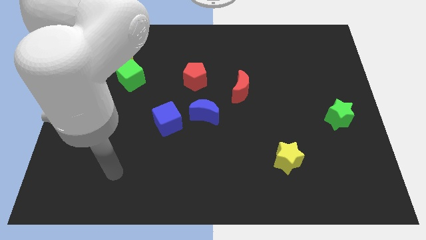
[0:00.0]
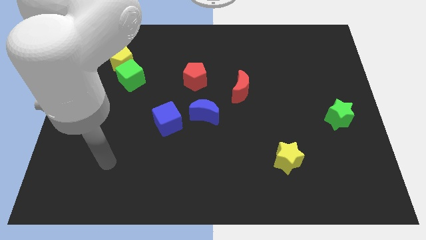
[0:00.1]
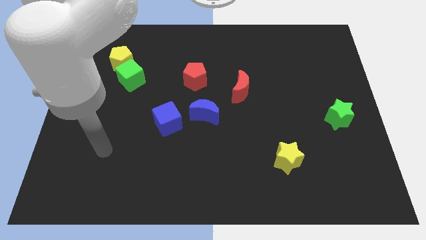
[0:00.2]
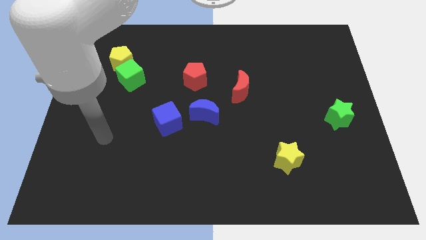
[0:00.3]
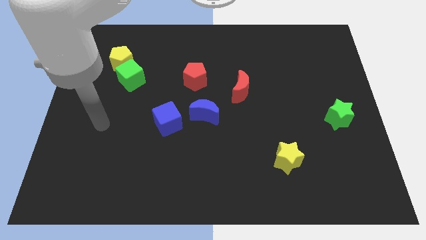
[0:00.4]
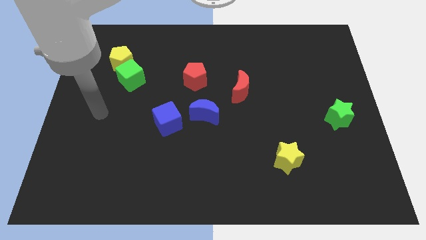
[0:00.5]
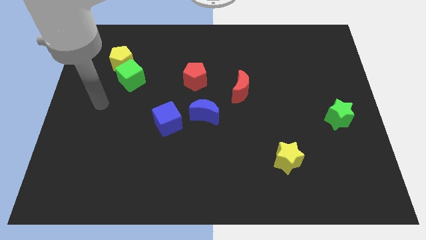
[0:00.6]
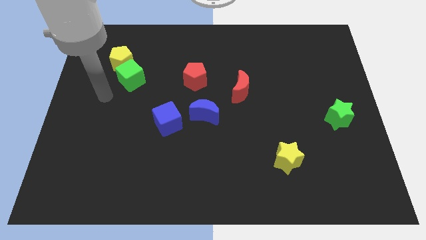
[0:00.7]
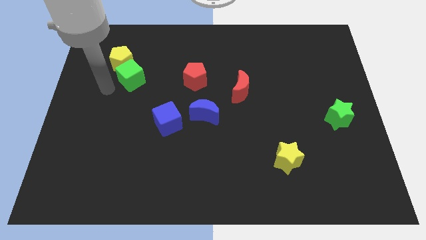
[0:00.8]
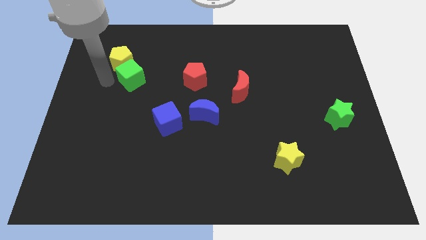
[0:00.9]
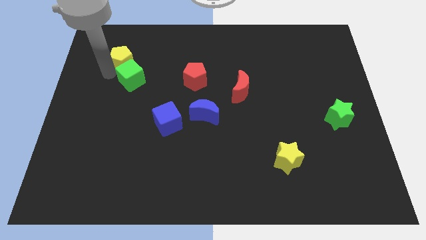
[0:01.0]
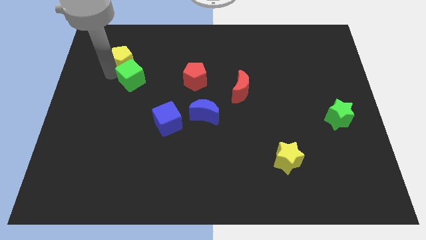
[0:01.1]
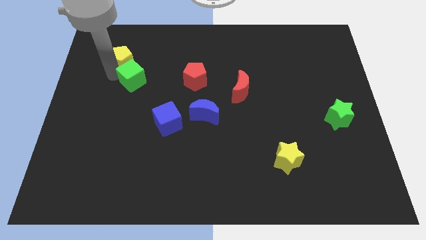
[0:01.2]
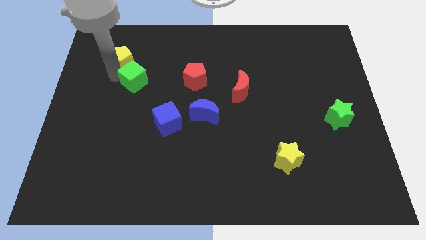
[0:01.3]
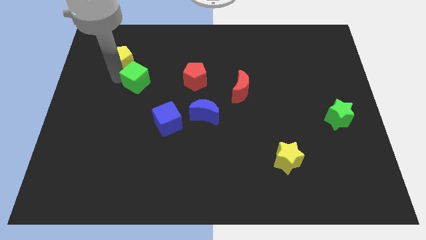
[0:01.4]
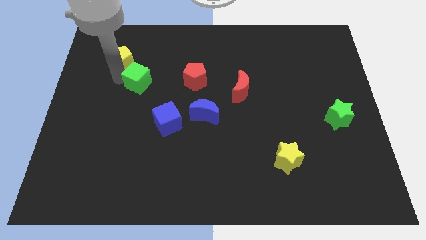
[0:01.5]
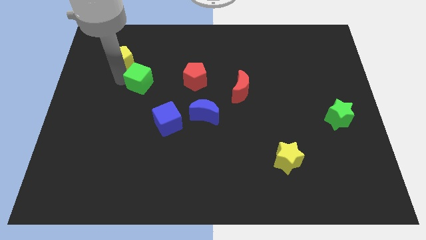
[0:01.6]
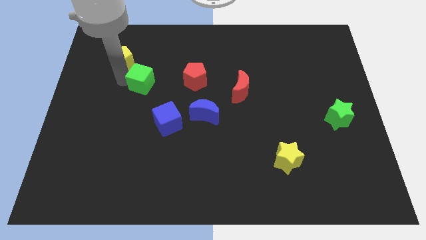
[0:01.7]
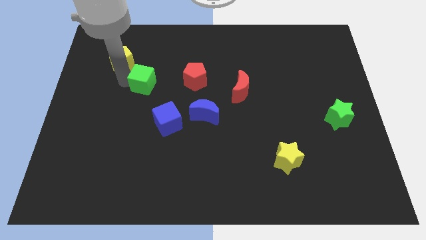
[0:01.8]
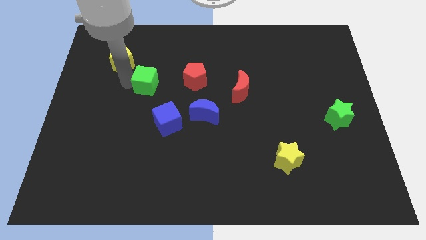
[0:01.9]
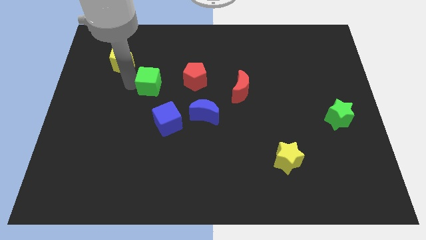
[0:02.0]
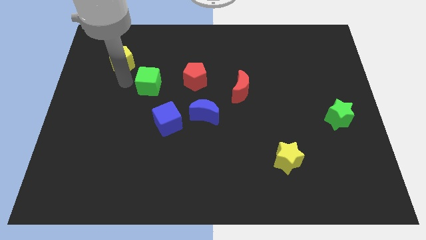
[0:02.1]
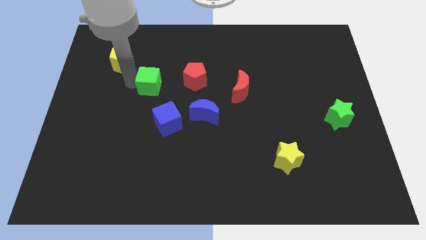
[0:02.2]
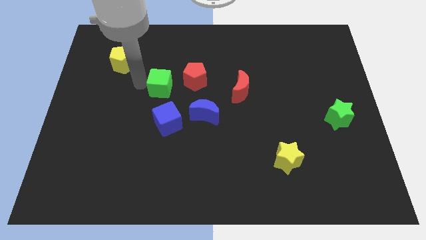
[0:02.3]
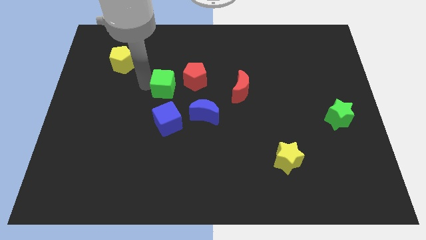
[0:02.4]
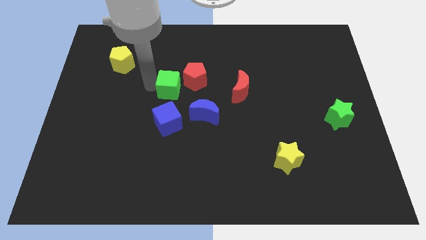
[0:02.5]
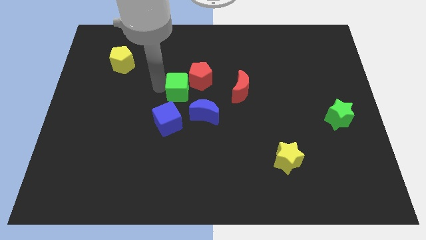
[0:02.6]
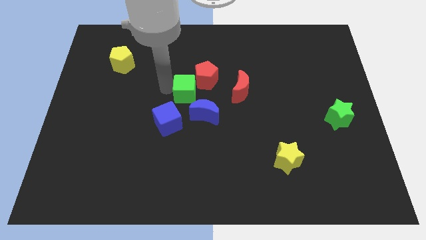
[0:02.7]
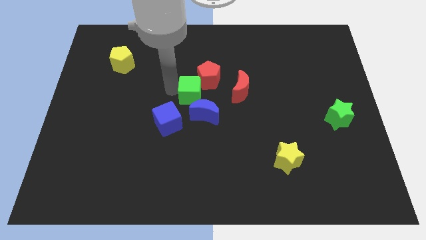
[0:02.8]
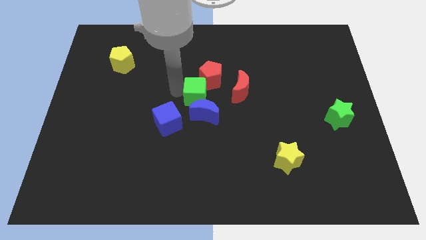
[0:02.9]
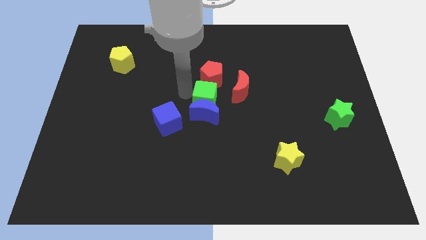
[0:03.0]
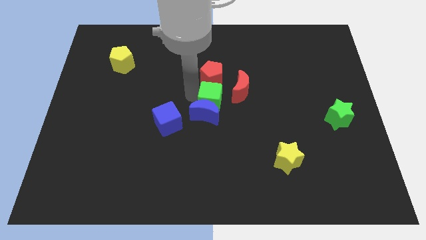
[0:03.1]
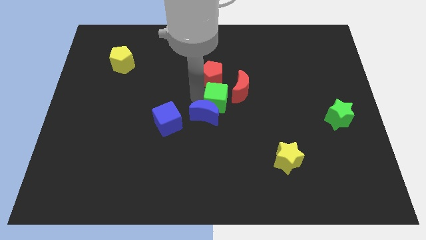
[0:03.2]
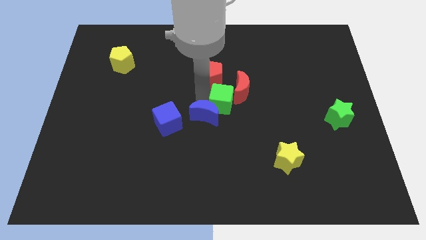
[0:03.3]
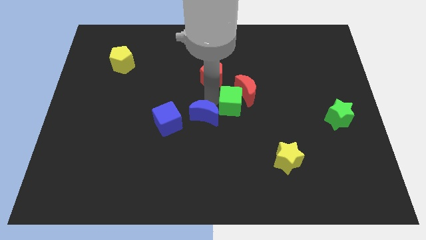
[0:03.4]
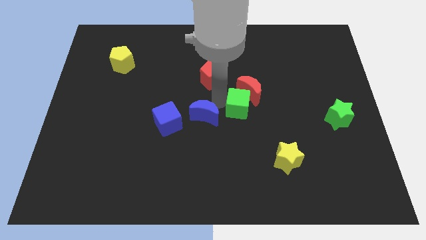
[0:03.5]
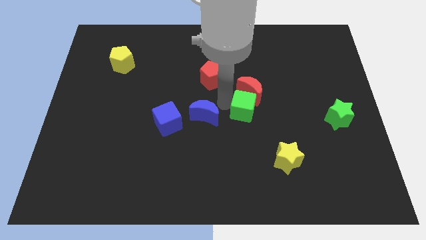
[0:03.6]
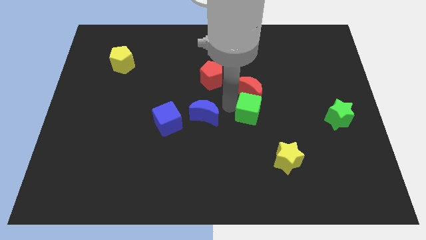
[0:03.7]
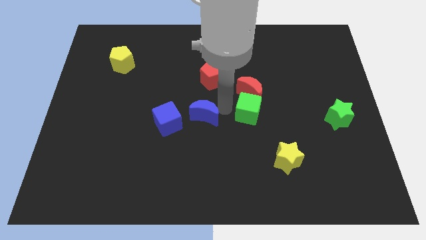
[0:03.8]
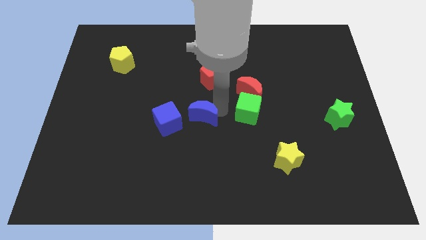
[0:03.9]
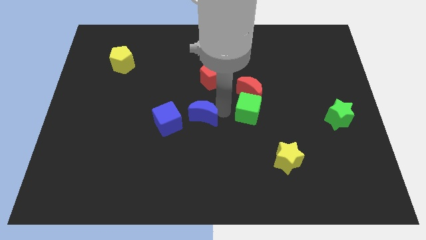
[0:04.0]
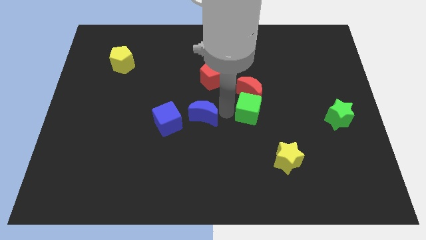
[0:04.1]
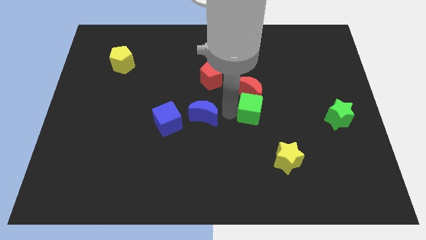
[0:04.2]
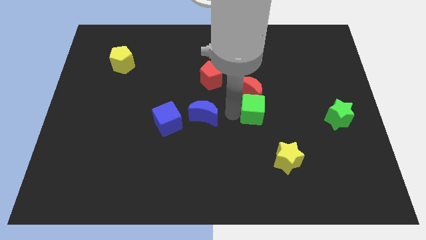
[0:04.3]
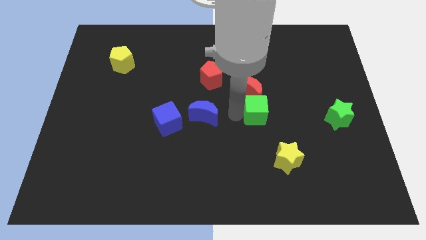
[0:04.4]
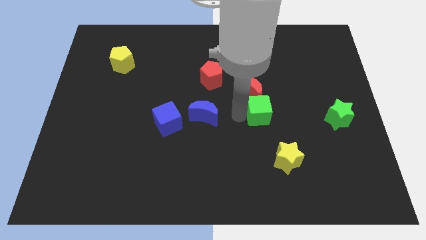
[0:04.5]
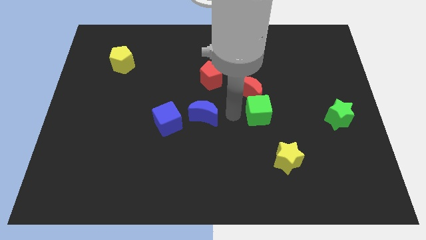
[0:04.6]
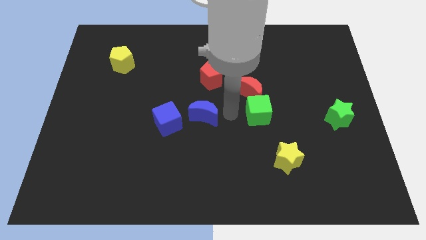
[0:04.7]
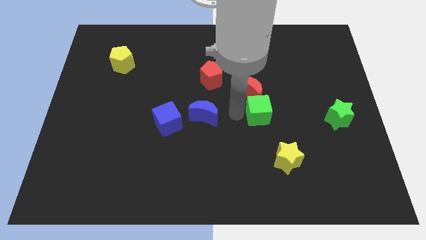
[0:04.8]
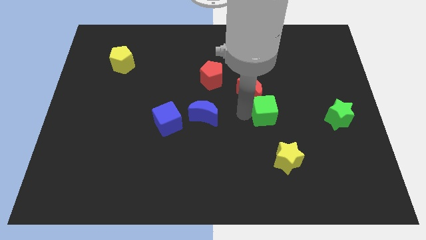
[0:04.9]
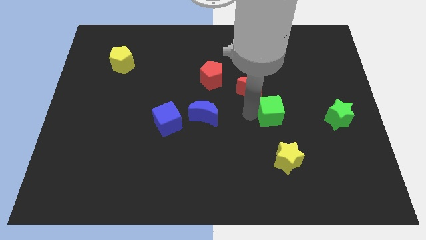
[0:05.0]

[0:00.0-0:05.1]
move the green cube left of the green star

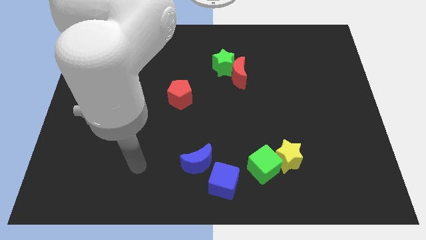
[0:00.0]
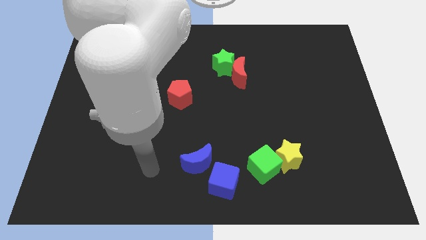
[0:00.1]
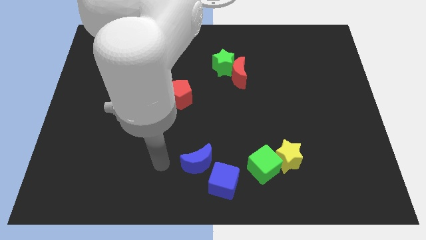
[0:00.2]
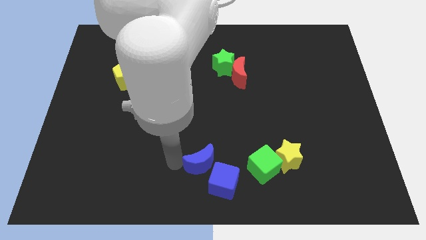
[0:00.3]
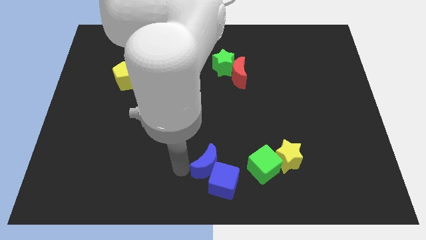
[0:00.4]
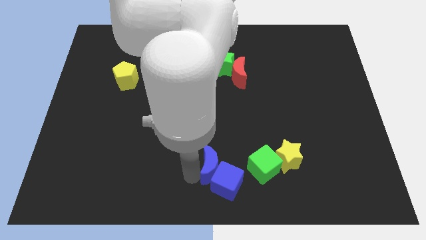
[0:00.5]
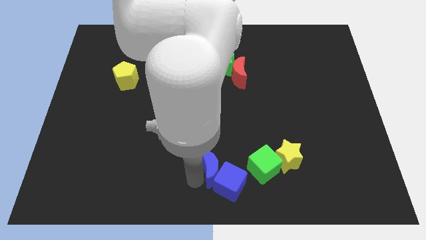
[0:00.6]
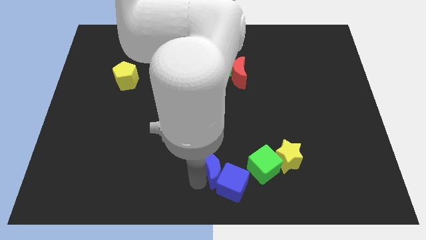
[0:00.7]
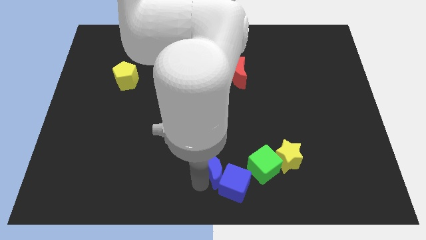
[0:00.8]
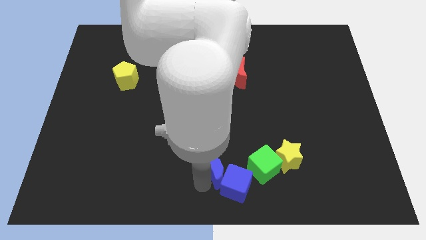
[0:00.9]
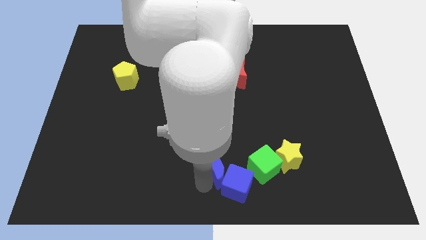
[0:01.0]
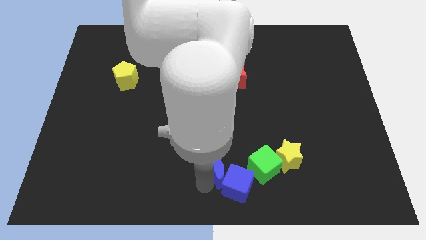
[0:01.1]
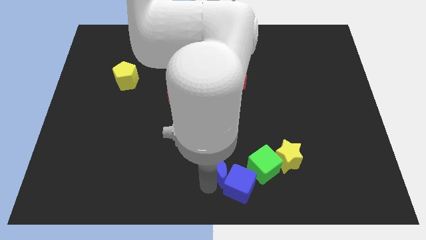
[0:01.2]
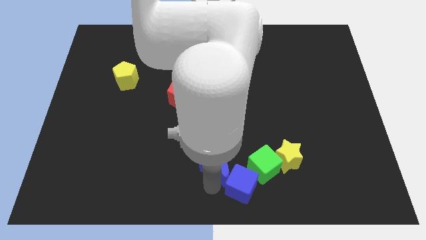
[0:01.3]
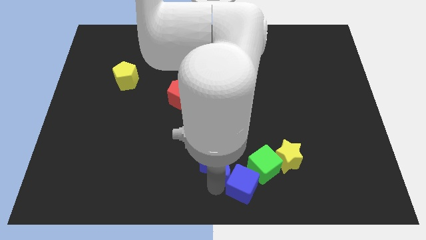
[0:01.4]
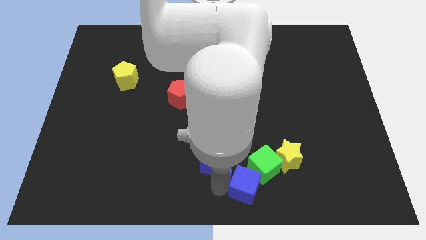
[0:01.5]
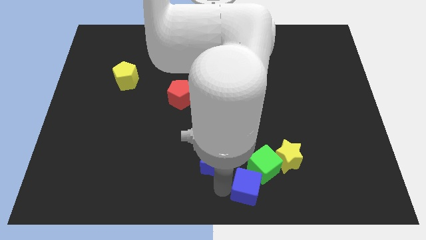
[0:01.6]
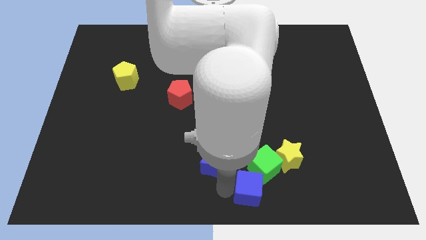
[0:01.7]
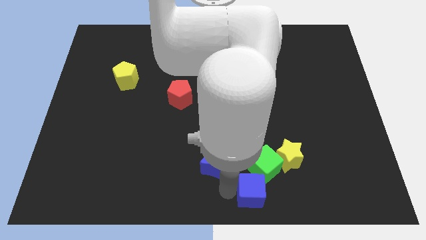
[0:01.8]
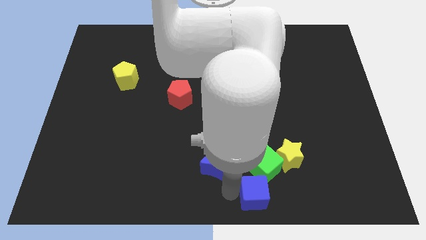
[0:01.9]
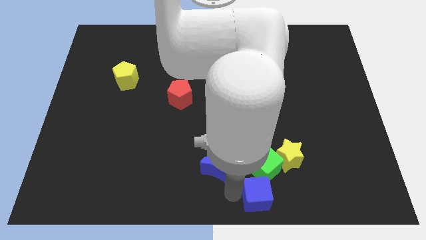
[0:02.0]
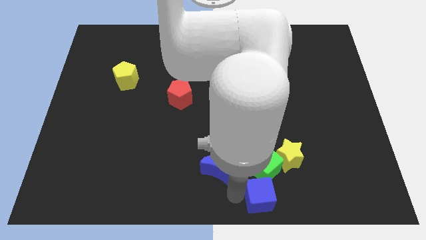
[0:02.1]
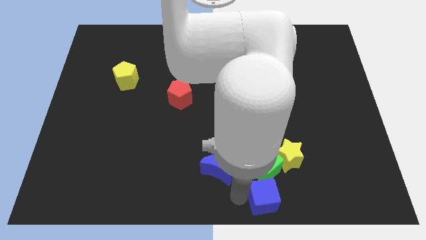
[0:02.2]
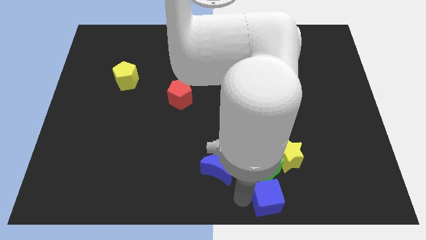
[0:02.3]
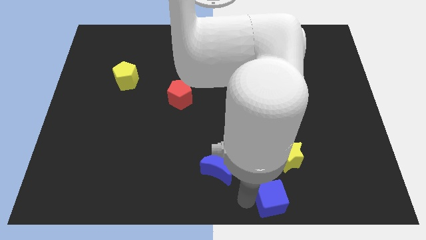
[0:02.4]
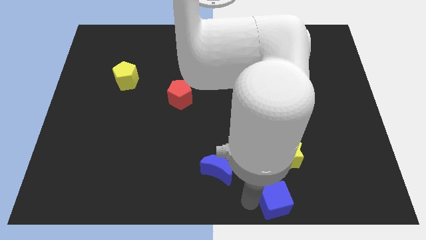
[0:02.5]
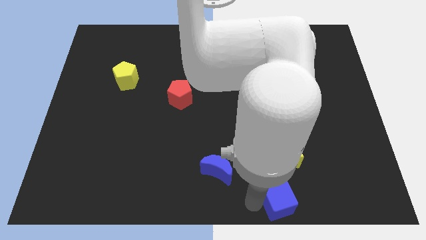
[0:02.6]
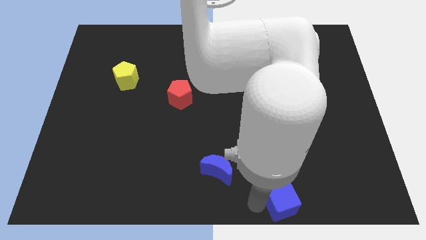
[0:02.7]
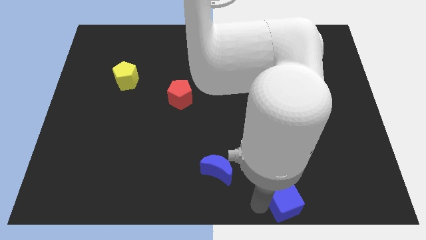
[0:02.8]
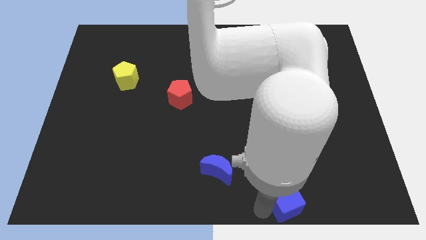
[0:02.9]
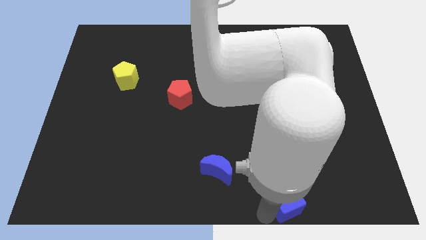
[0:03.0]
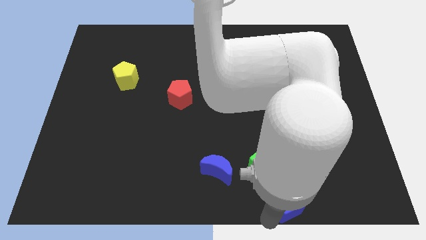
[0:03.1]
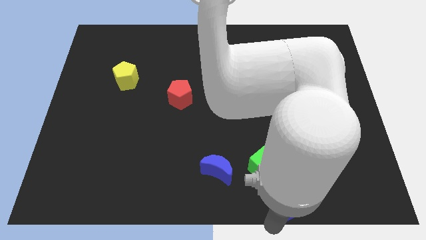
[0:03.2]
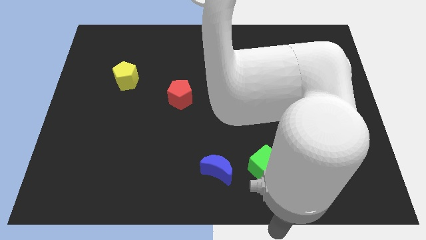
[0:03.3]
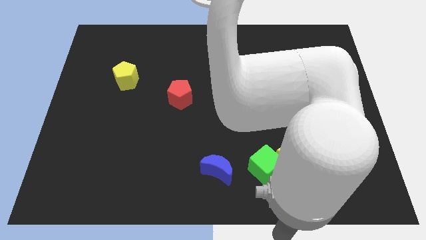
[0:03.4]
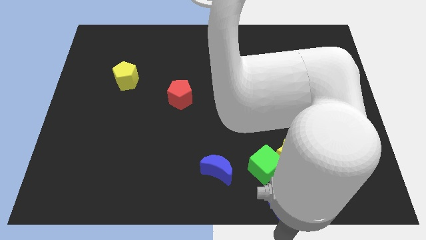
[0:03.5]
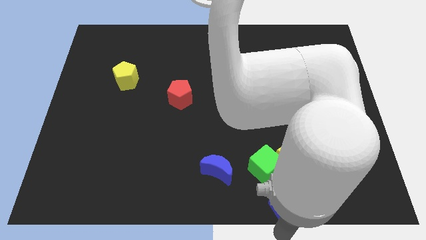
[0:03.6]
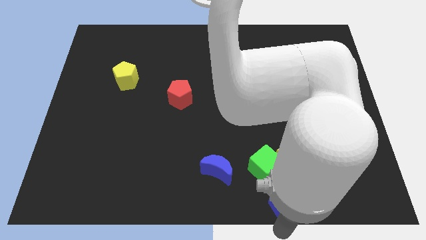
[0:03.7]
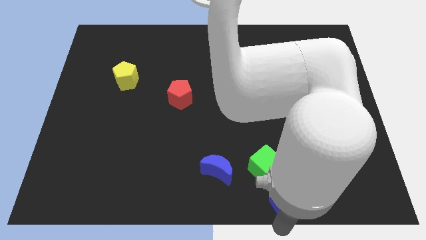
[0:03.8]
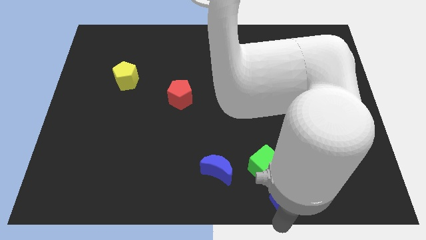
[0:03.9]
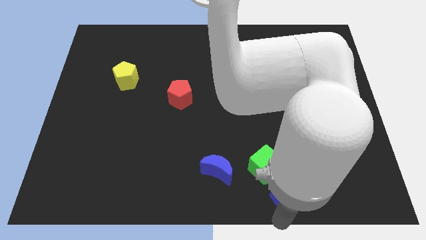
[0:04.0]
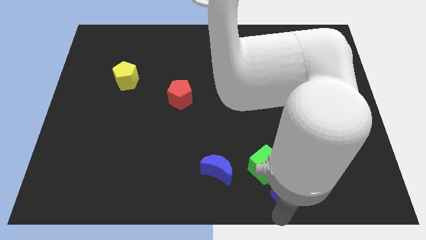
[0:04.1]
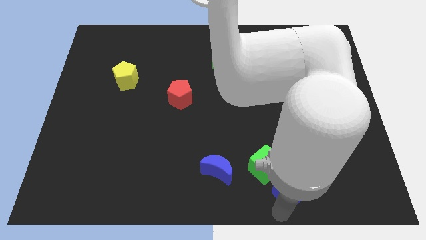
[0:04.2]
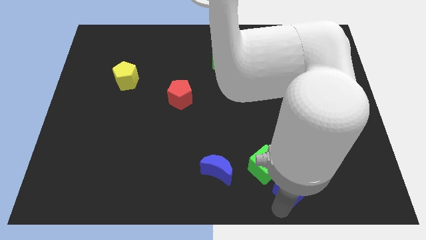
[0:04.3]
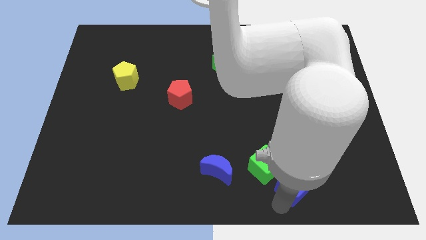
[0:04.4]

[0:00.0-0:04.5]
move the blue cube to the bottom right of the yellow star
